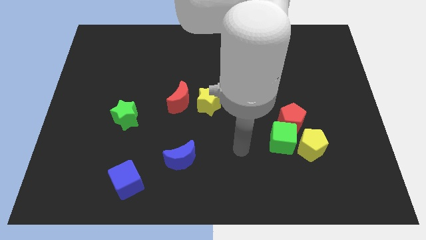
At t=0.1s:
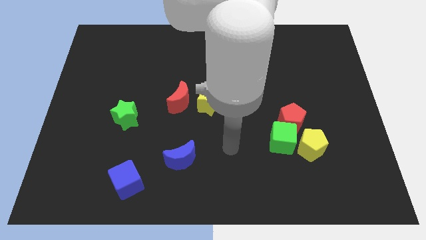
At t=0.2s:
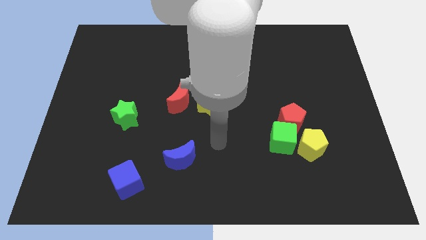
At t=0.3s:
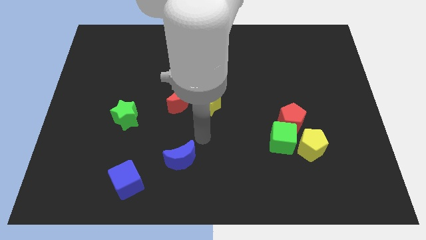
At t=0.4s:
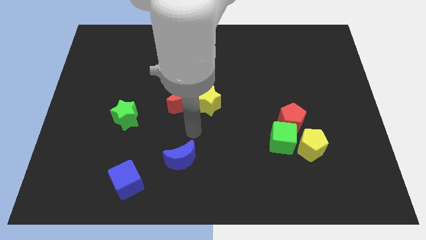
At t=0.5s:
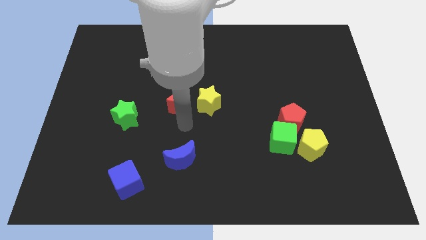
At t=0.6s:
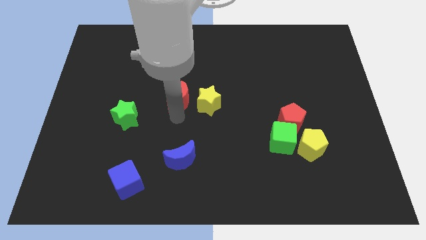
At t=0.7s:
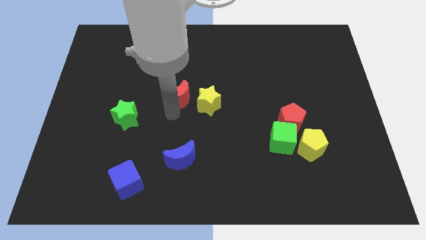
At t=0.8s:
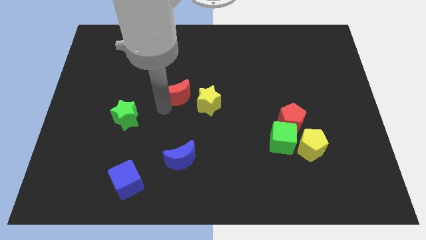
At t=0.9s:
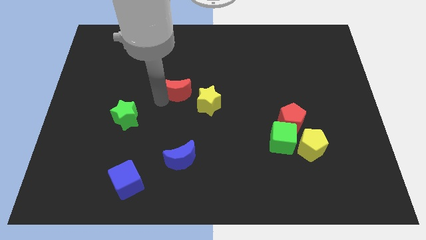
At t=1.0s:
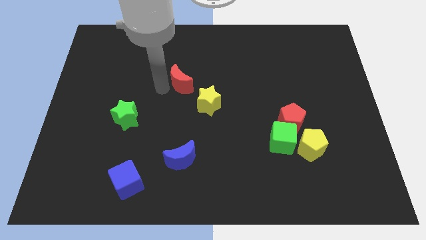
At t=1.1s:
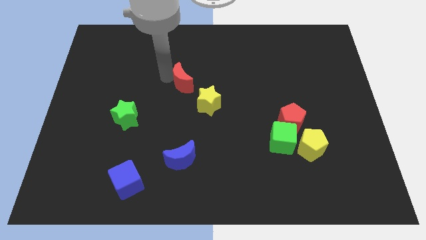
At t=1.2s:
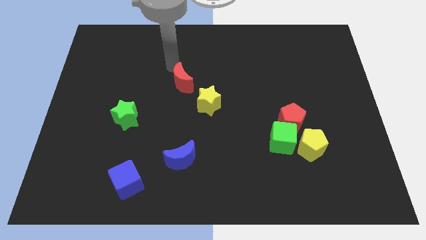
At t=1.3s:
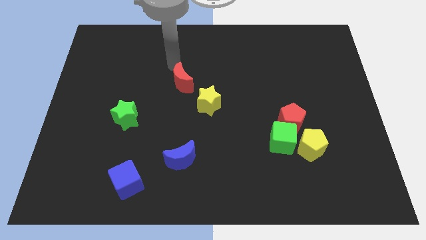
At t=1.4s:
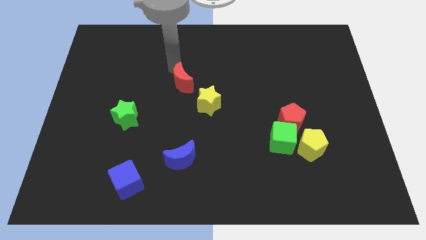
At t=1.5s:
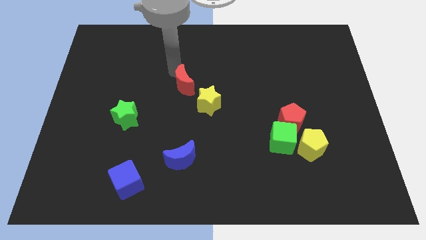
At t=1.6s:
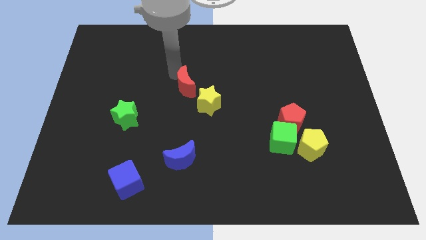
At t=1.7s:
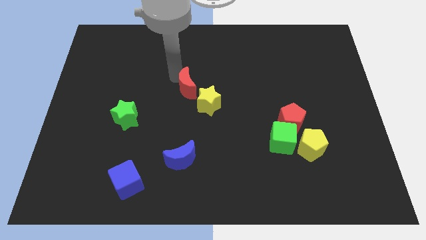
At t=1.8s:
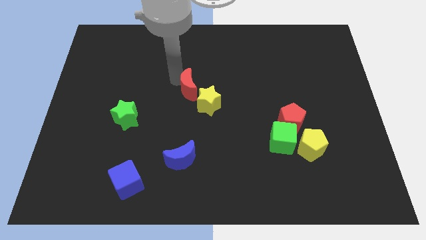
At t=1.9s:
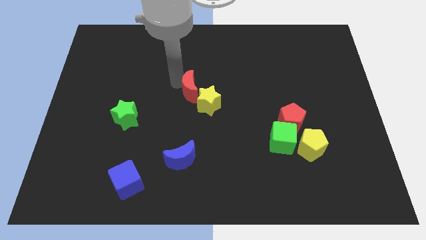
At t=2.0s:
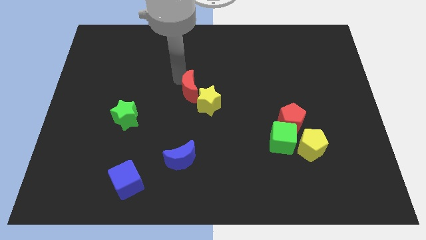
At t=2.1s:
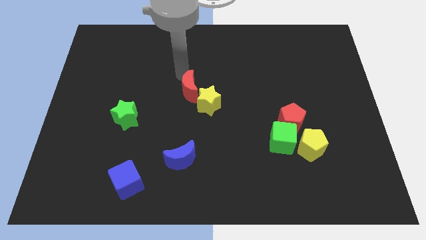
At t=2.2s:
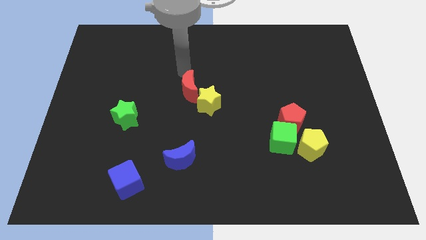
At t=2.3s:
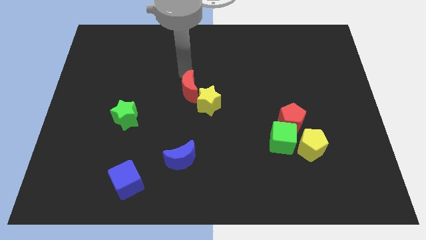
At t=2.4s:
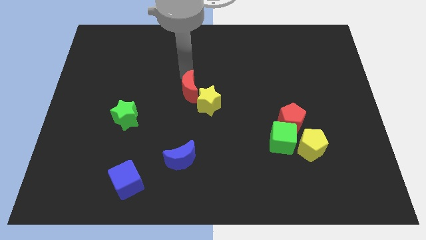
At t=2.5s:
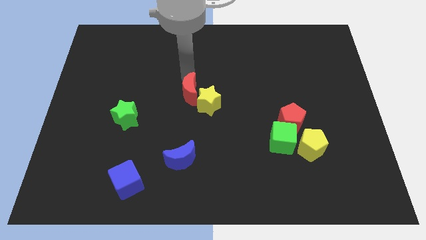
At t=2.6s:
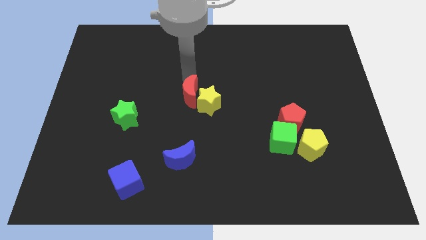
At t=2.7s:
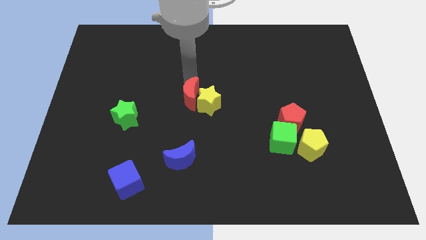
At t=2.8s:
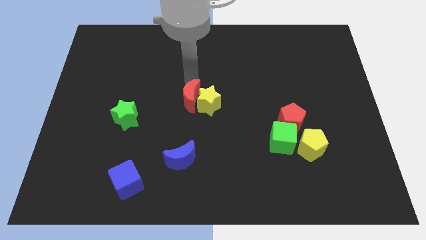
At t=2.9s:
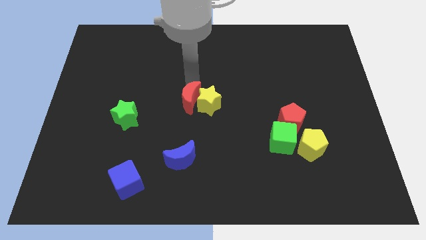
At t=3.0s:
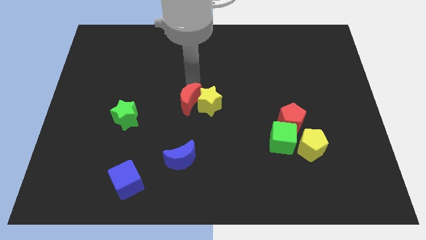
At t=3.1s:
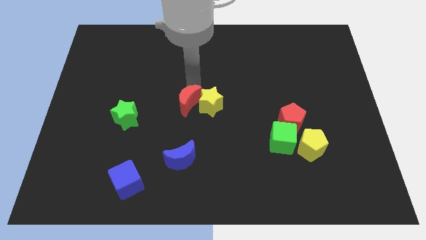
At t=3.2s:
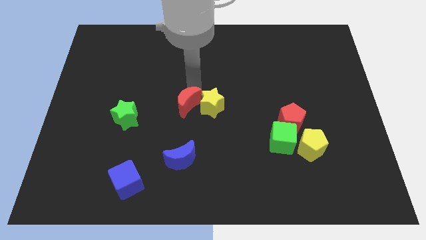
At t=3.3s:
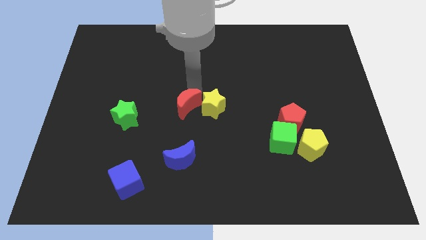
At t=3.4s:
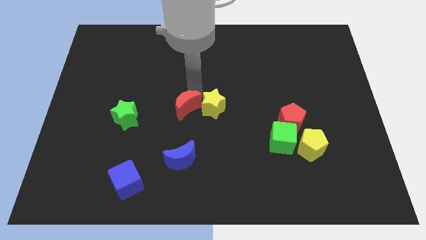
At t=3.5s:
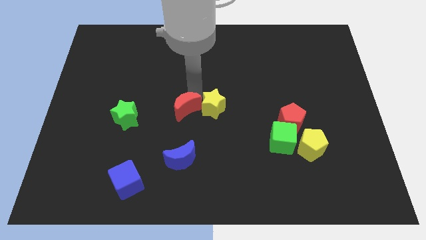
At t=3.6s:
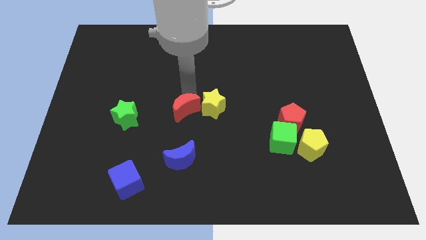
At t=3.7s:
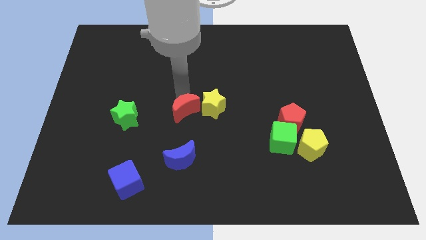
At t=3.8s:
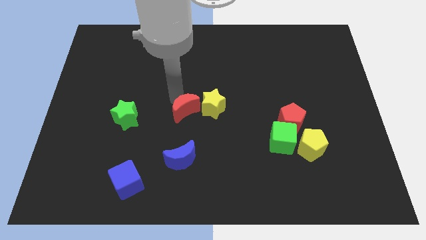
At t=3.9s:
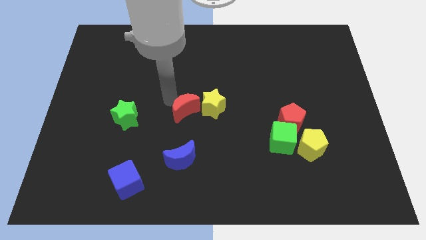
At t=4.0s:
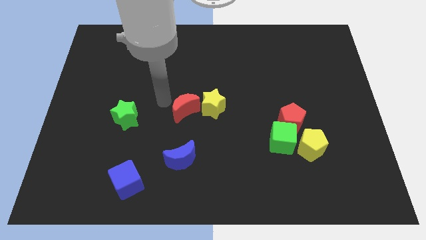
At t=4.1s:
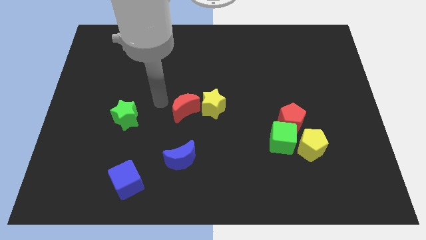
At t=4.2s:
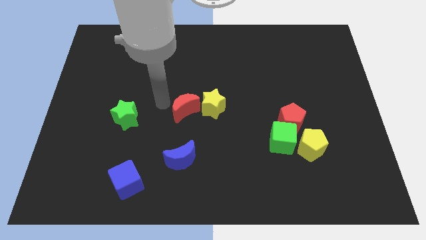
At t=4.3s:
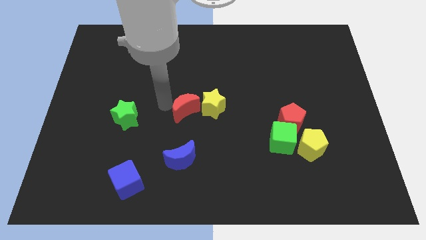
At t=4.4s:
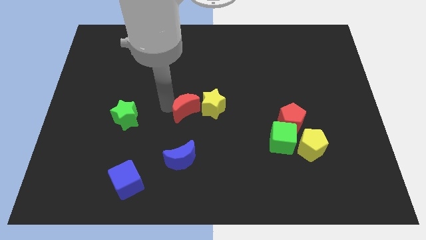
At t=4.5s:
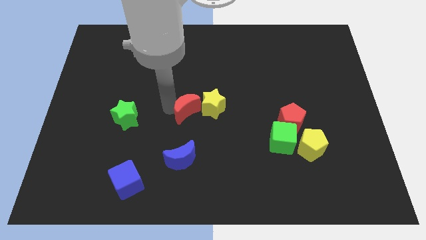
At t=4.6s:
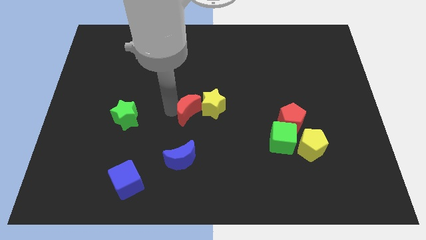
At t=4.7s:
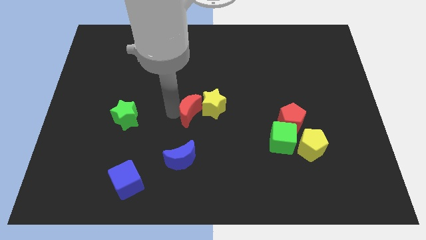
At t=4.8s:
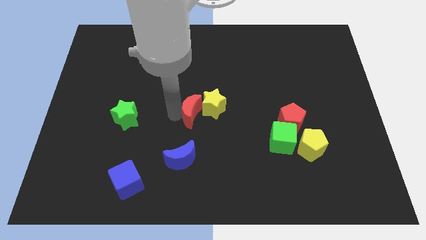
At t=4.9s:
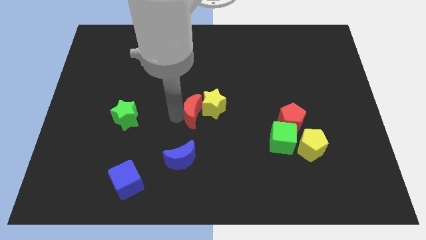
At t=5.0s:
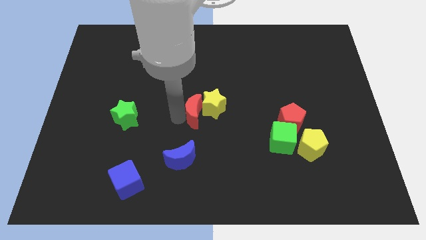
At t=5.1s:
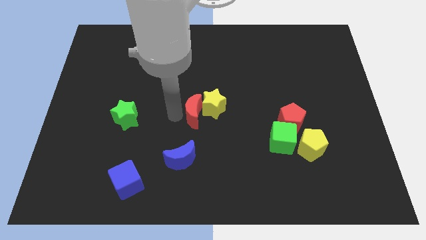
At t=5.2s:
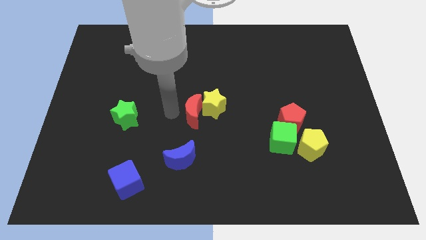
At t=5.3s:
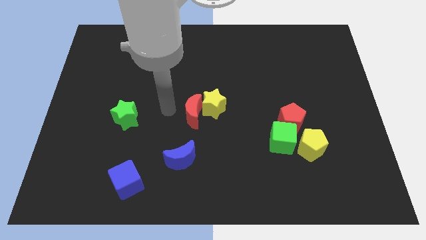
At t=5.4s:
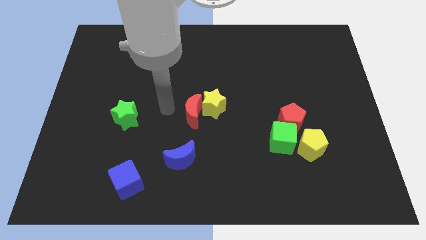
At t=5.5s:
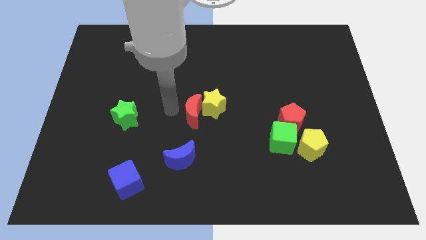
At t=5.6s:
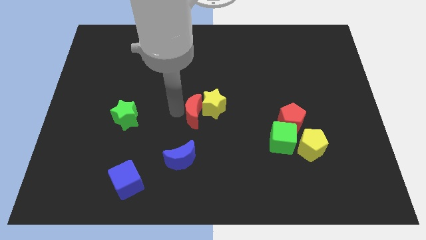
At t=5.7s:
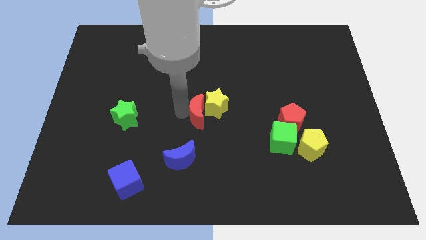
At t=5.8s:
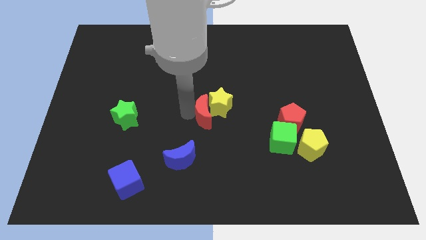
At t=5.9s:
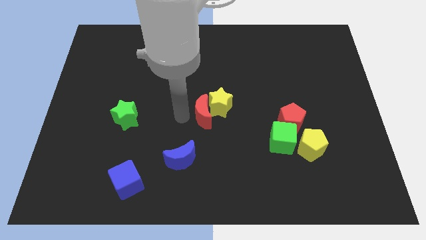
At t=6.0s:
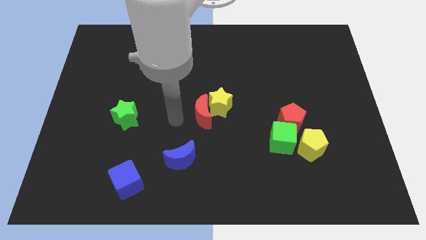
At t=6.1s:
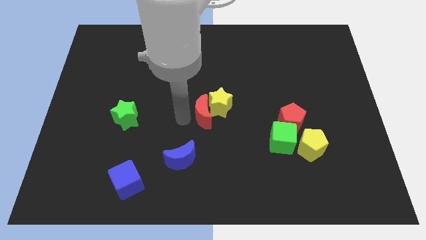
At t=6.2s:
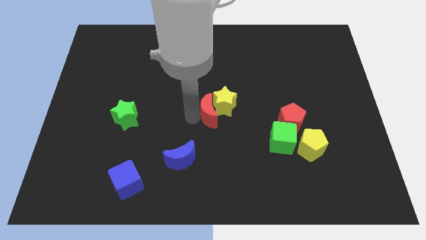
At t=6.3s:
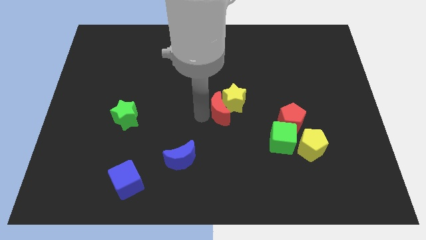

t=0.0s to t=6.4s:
move the red moon to the right somewhat

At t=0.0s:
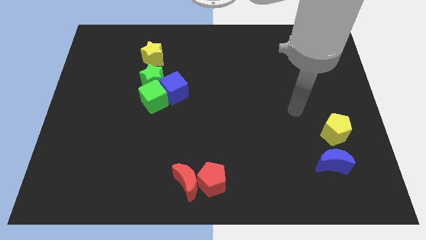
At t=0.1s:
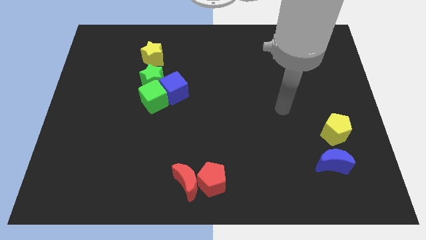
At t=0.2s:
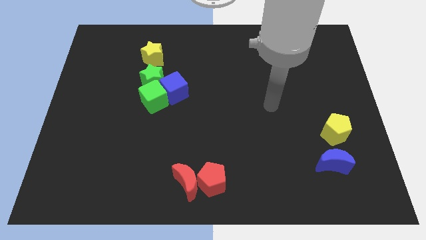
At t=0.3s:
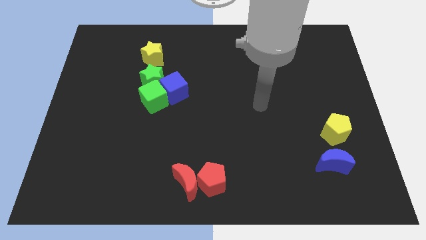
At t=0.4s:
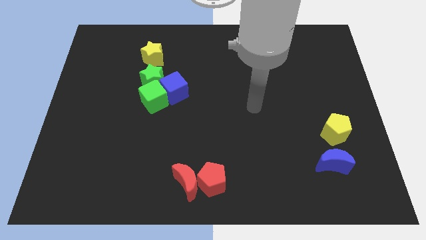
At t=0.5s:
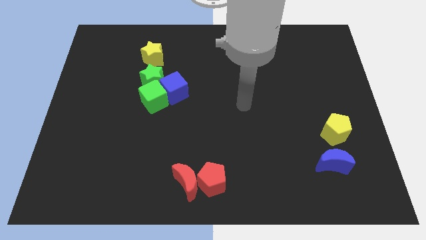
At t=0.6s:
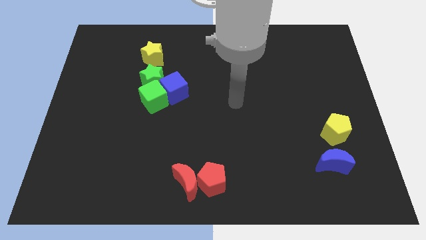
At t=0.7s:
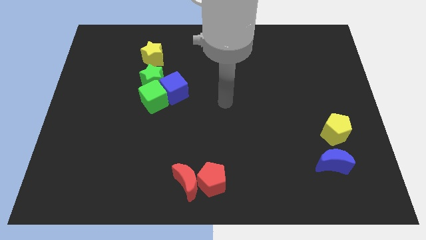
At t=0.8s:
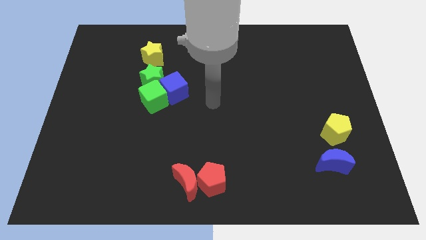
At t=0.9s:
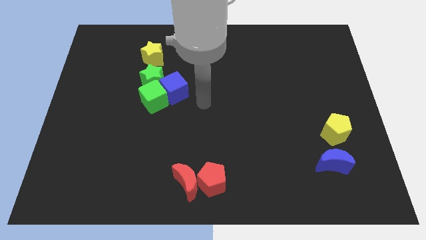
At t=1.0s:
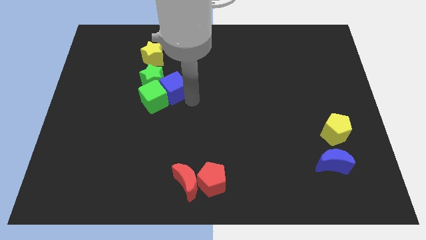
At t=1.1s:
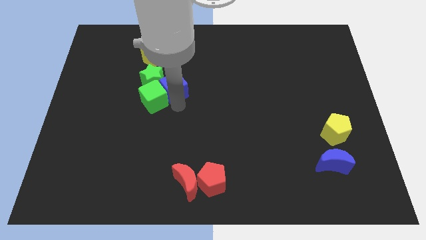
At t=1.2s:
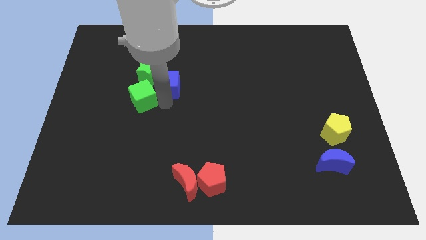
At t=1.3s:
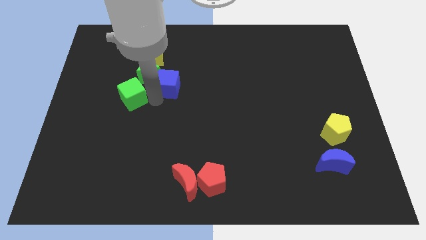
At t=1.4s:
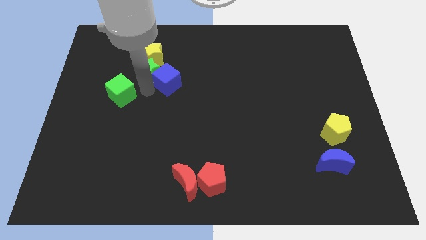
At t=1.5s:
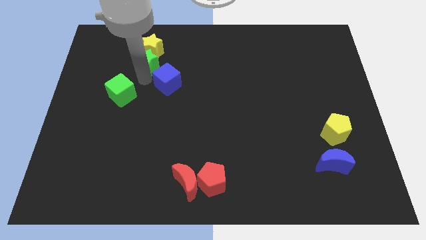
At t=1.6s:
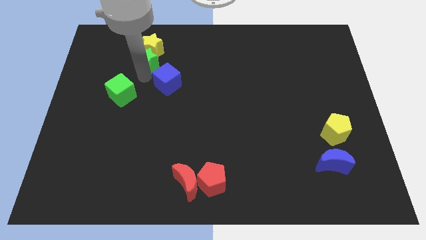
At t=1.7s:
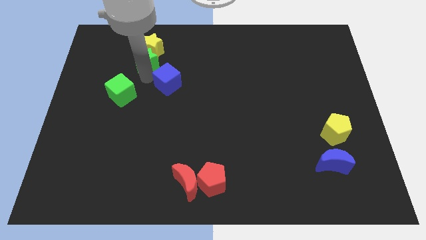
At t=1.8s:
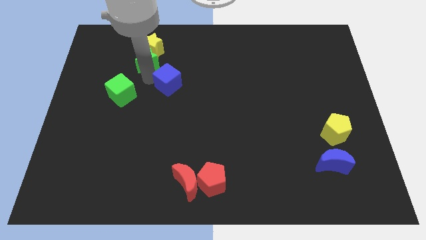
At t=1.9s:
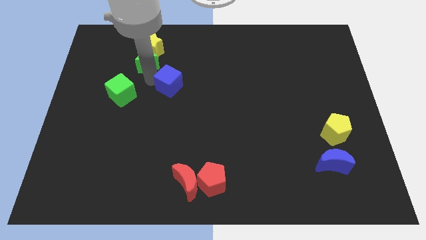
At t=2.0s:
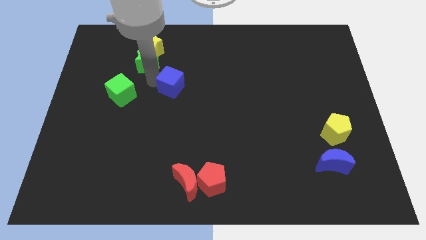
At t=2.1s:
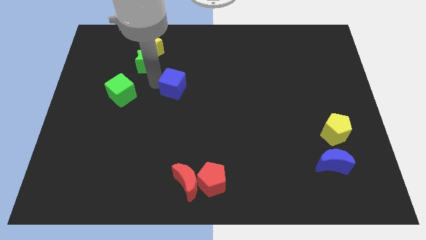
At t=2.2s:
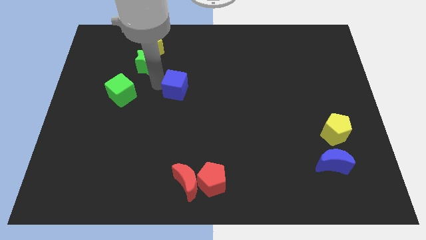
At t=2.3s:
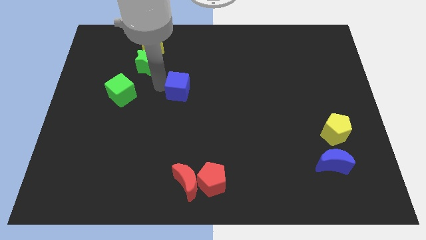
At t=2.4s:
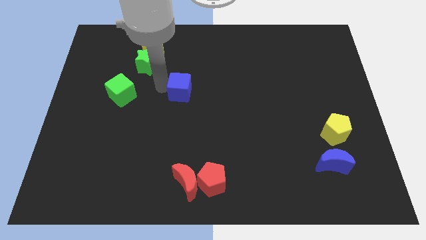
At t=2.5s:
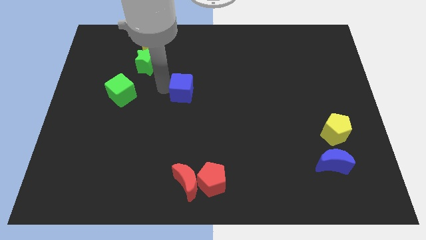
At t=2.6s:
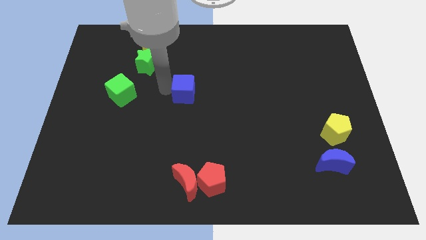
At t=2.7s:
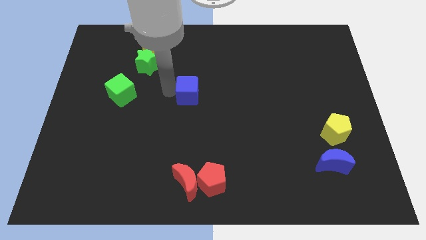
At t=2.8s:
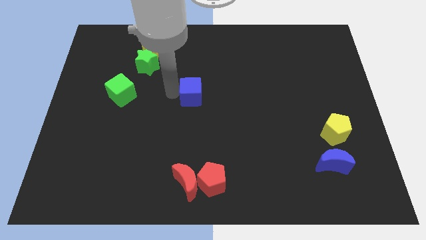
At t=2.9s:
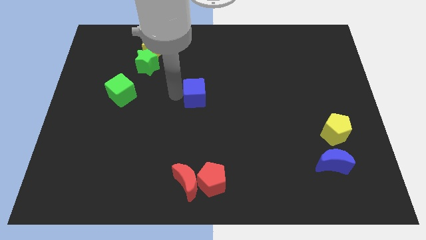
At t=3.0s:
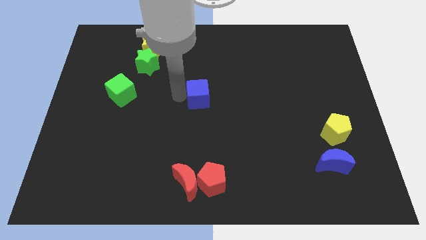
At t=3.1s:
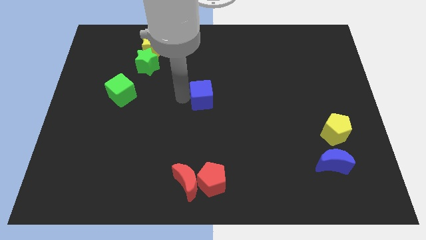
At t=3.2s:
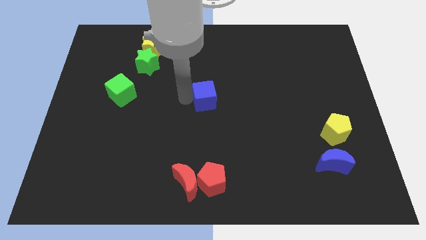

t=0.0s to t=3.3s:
move the blue cube to the right a little bit
